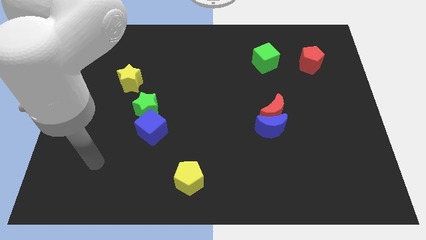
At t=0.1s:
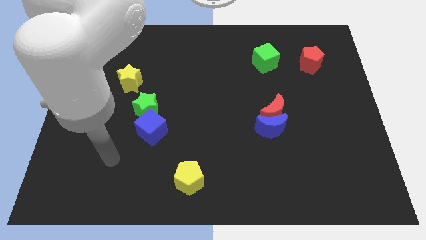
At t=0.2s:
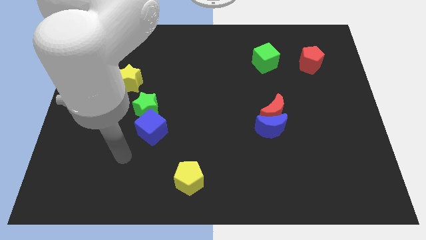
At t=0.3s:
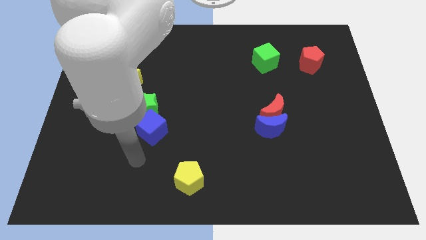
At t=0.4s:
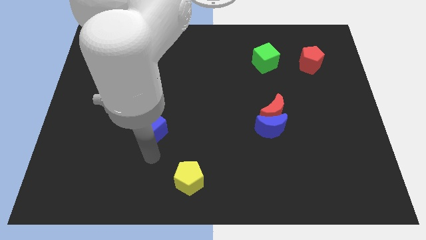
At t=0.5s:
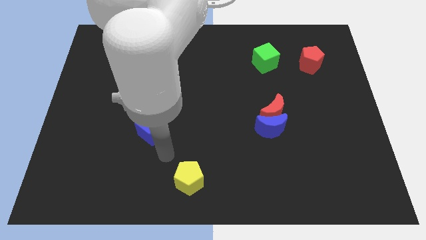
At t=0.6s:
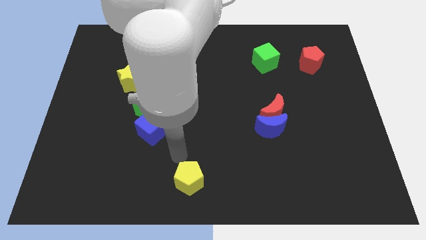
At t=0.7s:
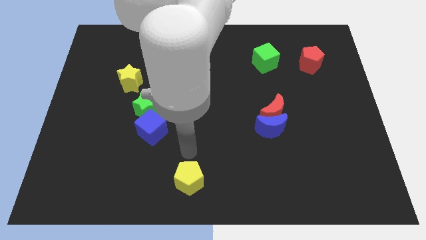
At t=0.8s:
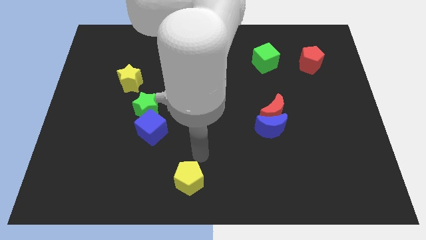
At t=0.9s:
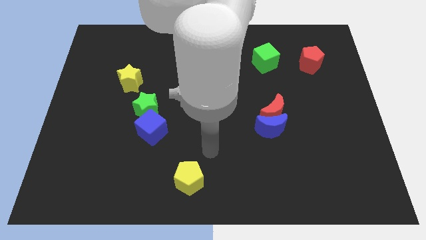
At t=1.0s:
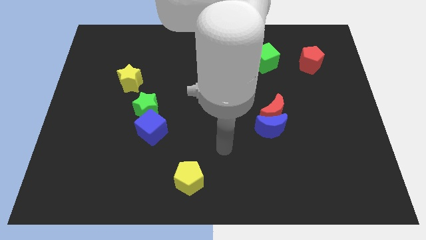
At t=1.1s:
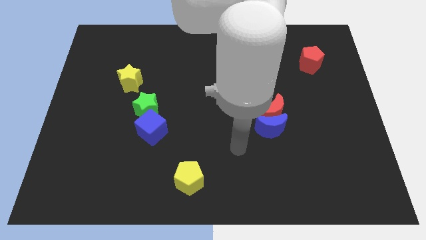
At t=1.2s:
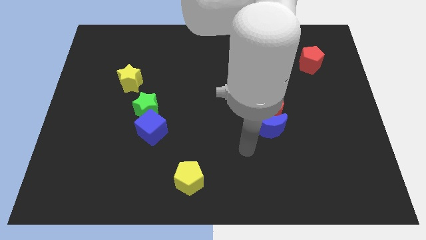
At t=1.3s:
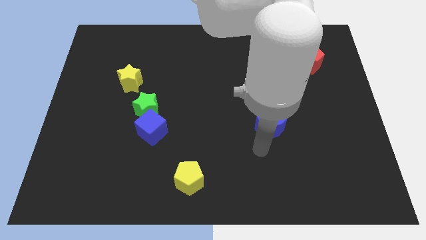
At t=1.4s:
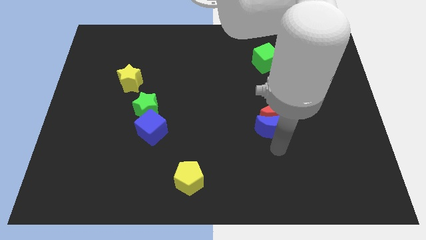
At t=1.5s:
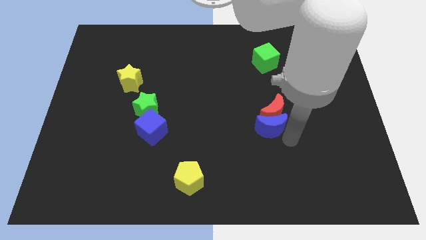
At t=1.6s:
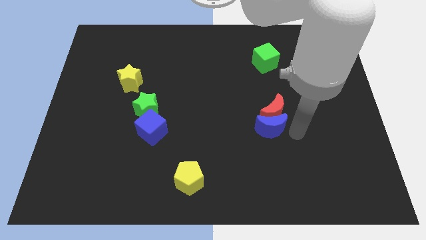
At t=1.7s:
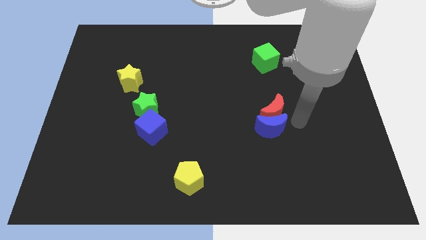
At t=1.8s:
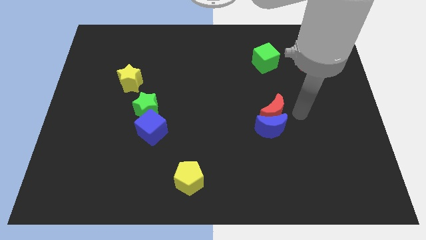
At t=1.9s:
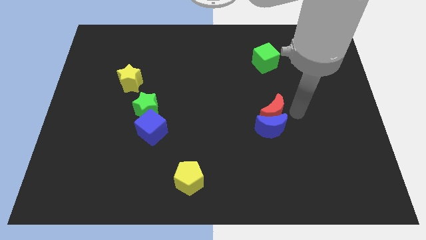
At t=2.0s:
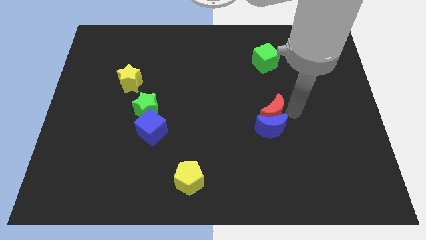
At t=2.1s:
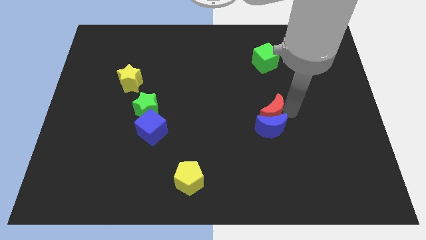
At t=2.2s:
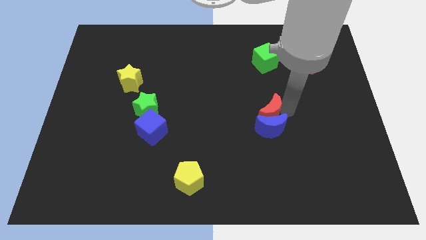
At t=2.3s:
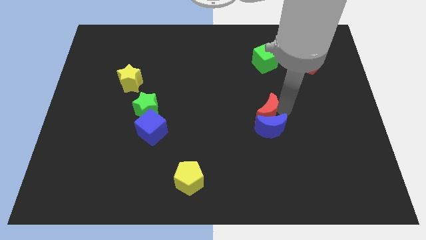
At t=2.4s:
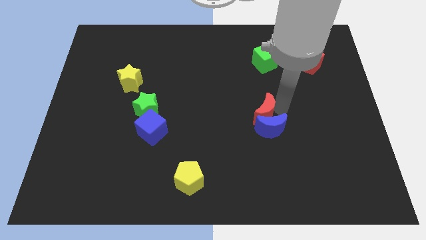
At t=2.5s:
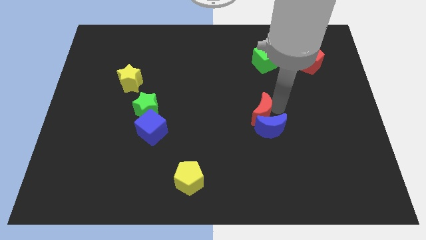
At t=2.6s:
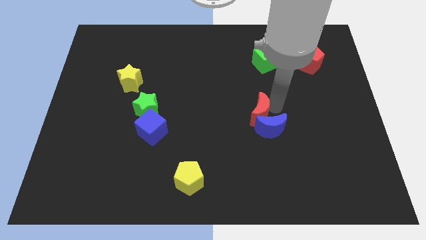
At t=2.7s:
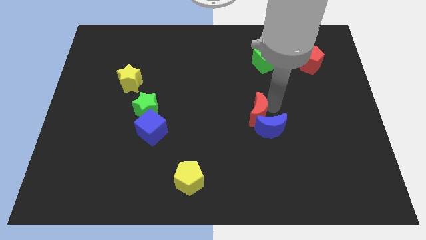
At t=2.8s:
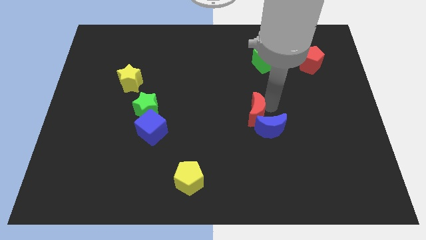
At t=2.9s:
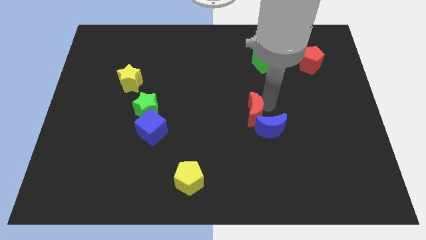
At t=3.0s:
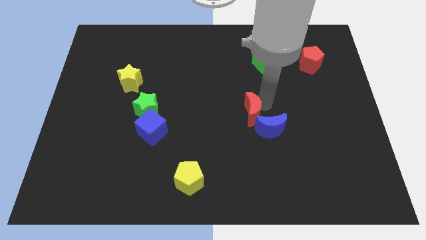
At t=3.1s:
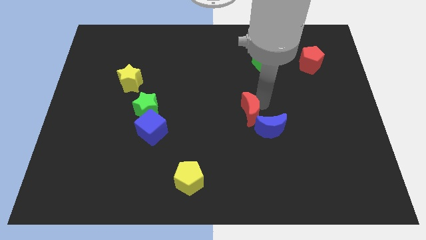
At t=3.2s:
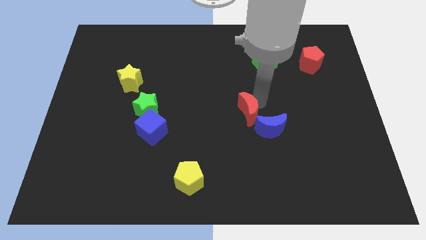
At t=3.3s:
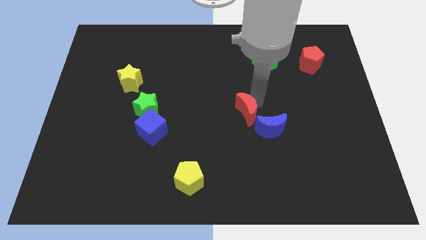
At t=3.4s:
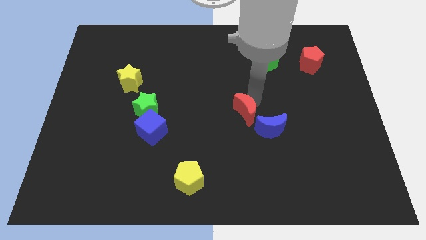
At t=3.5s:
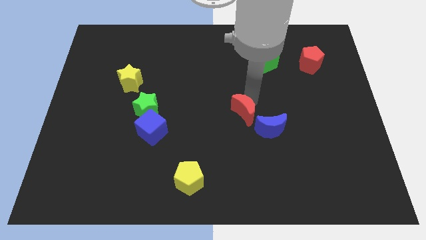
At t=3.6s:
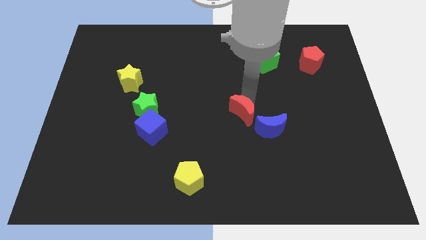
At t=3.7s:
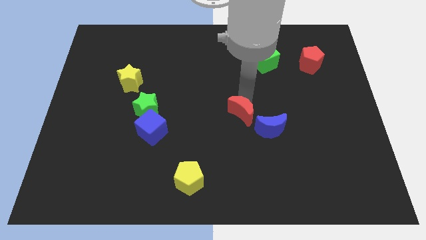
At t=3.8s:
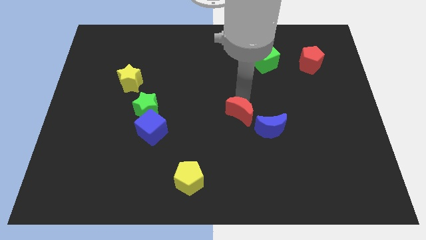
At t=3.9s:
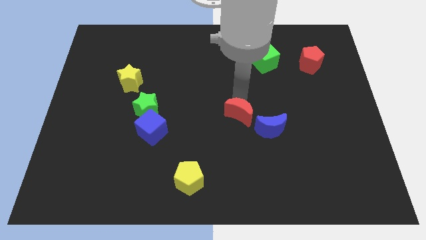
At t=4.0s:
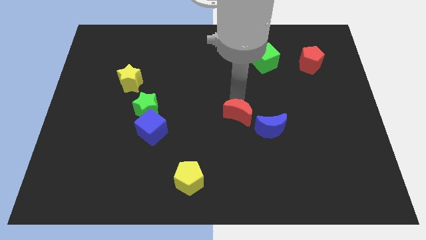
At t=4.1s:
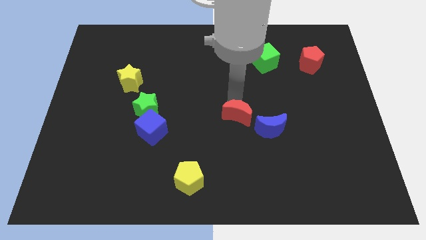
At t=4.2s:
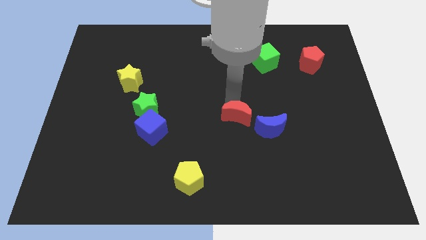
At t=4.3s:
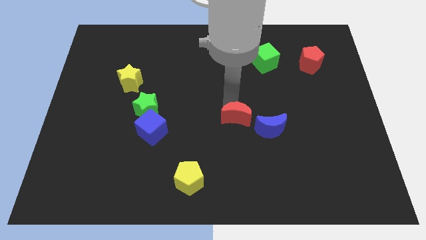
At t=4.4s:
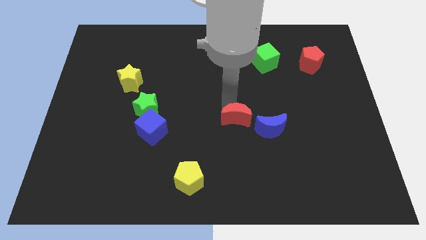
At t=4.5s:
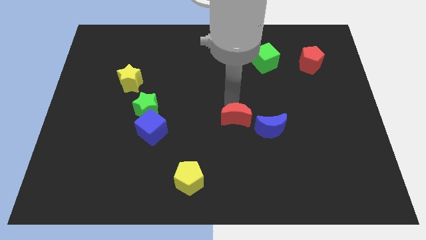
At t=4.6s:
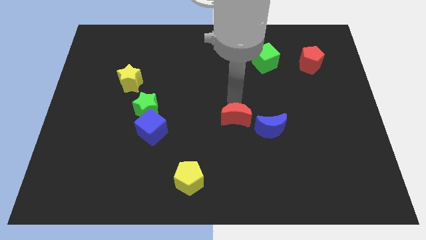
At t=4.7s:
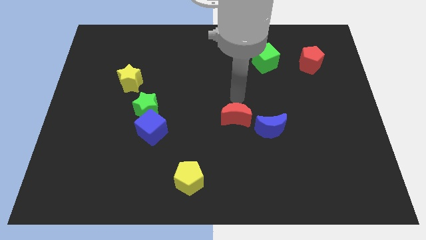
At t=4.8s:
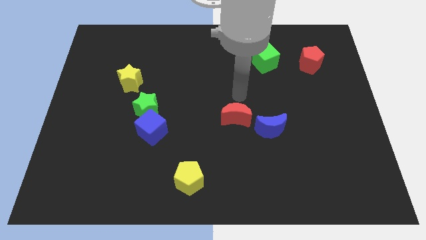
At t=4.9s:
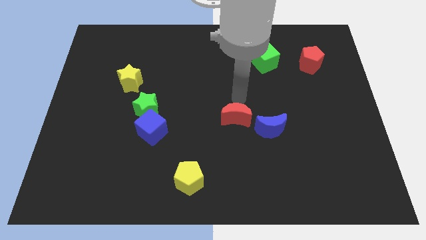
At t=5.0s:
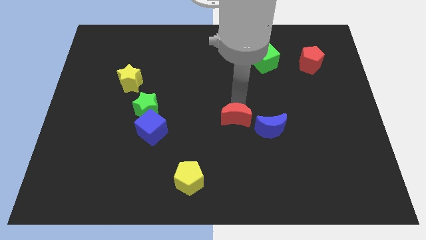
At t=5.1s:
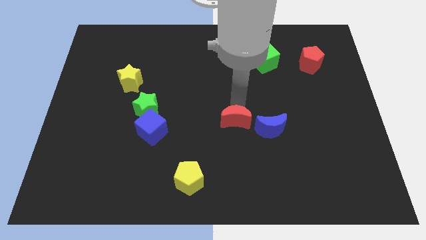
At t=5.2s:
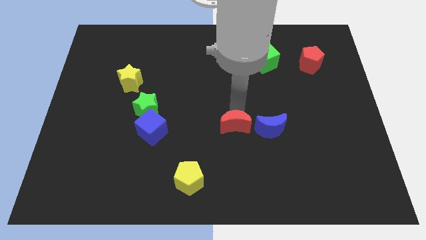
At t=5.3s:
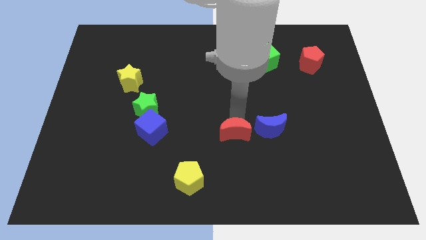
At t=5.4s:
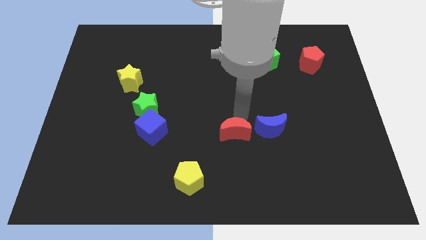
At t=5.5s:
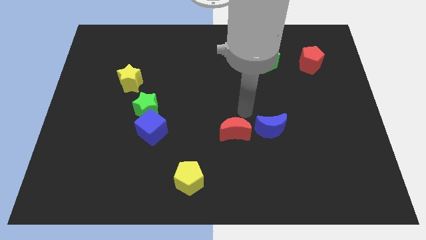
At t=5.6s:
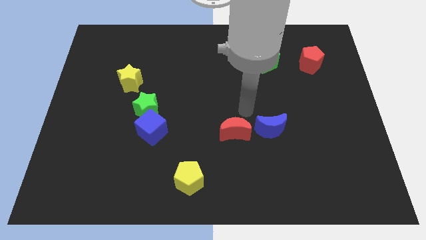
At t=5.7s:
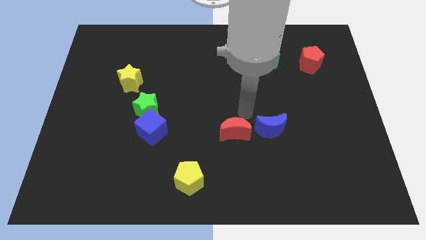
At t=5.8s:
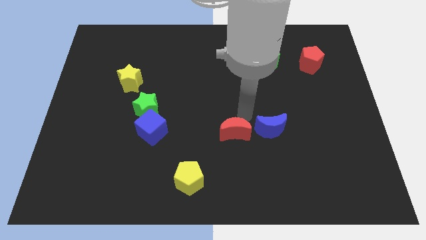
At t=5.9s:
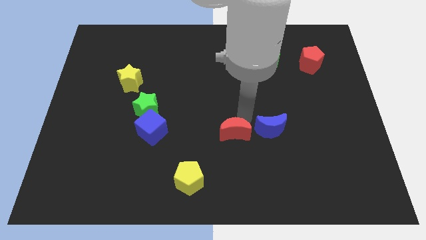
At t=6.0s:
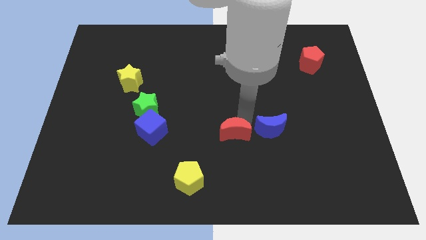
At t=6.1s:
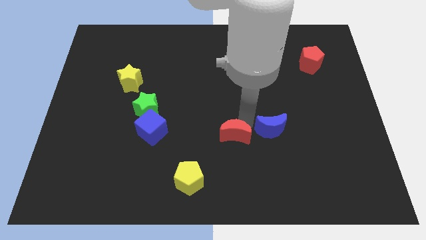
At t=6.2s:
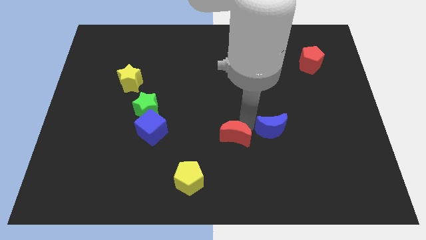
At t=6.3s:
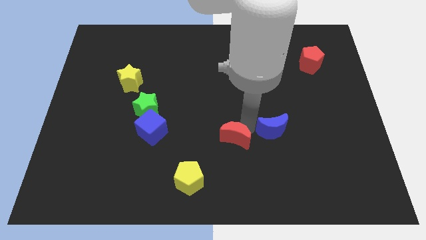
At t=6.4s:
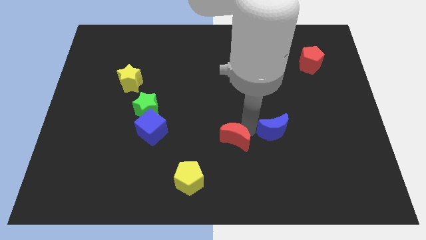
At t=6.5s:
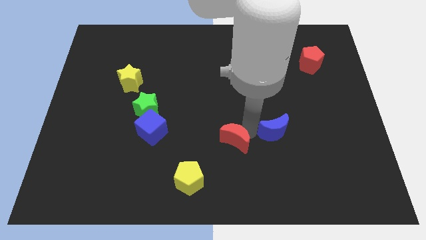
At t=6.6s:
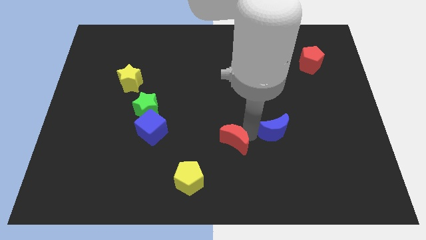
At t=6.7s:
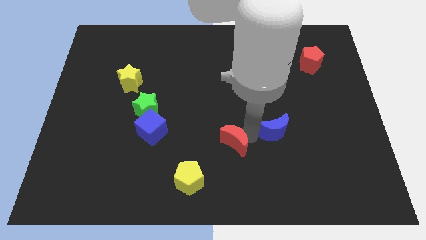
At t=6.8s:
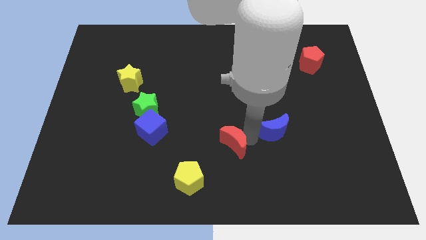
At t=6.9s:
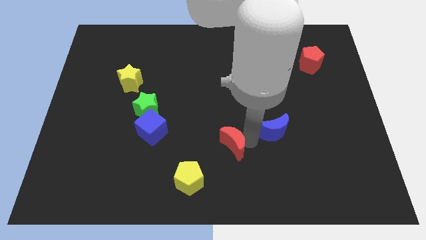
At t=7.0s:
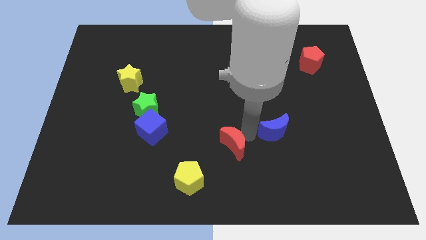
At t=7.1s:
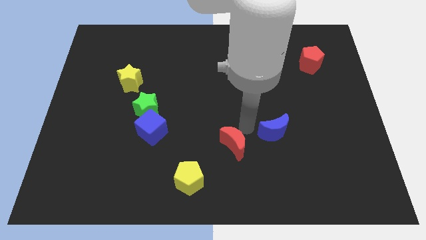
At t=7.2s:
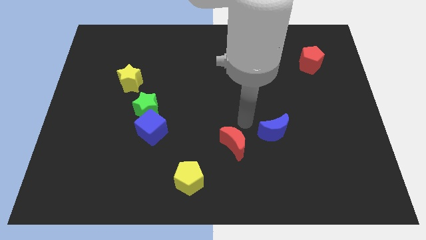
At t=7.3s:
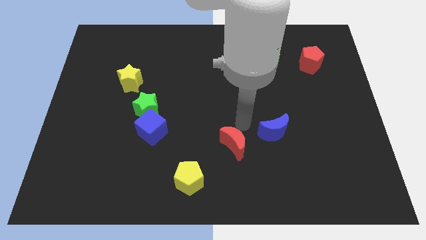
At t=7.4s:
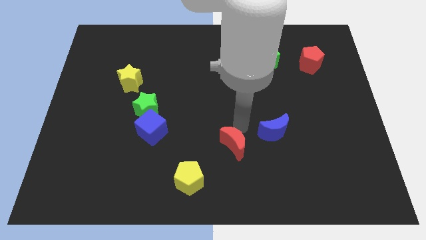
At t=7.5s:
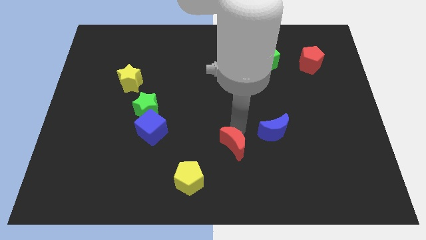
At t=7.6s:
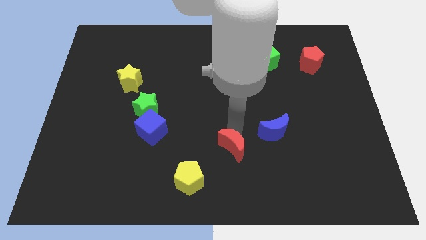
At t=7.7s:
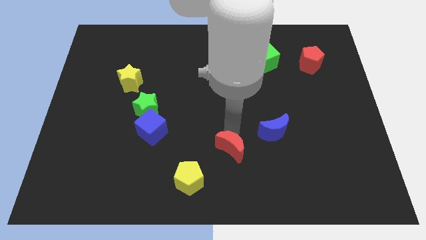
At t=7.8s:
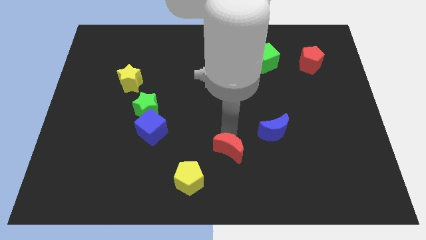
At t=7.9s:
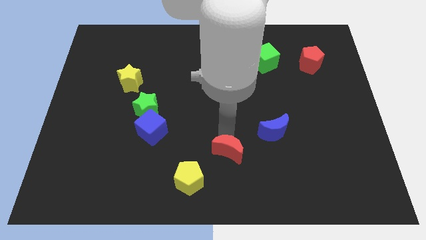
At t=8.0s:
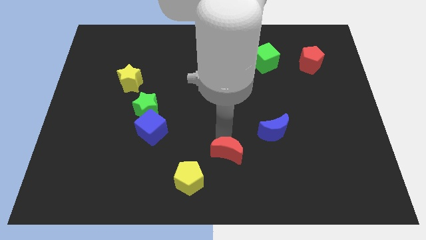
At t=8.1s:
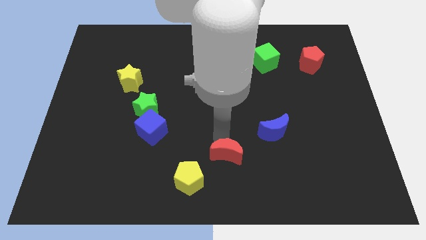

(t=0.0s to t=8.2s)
move the red moon to the bottom
